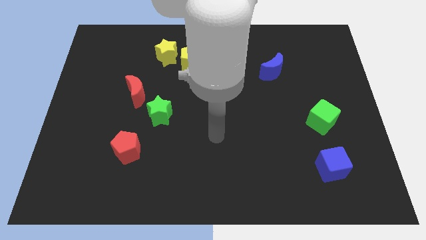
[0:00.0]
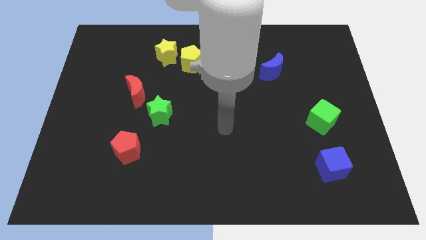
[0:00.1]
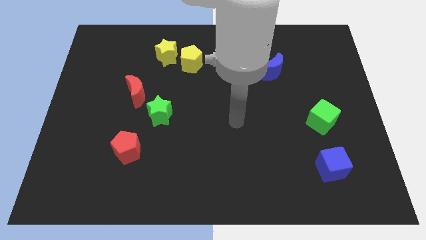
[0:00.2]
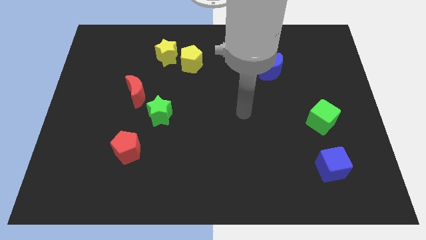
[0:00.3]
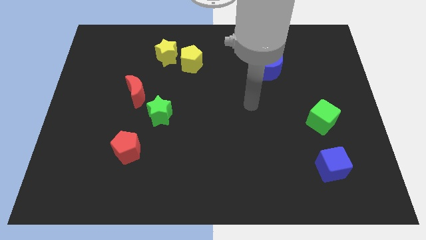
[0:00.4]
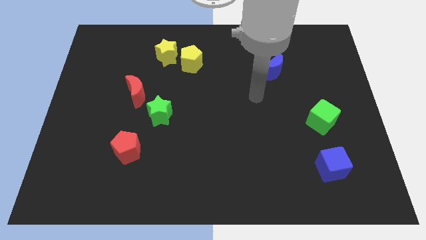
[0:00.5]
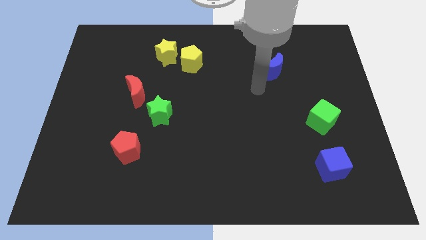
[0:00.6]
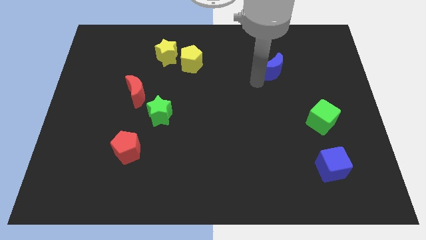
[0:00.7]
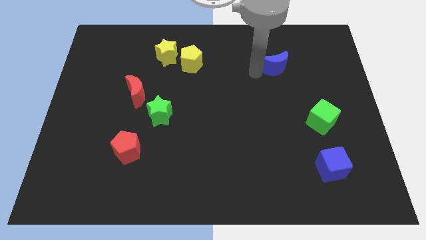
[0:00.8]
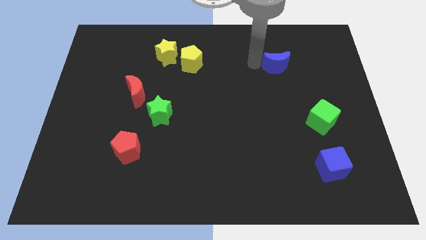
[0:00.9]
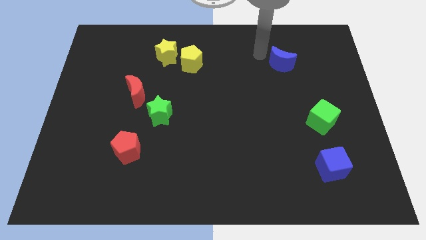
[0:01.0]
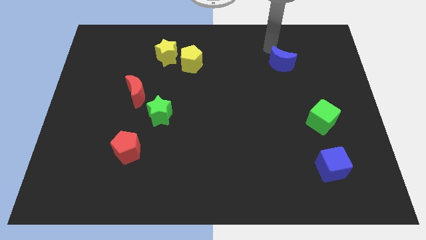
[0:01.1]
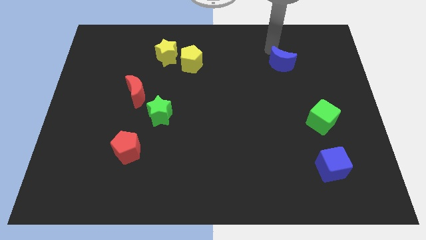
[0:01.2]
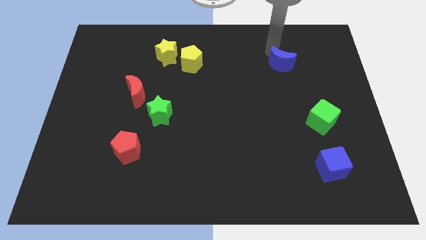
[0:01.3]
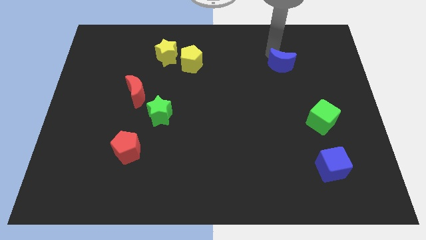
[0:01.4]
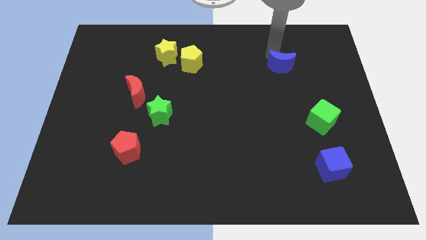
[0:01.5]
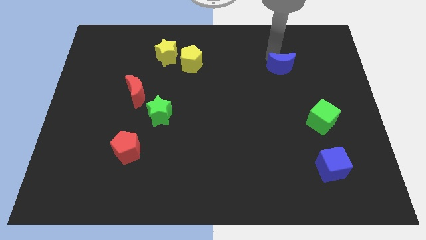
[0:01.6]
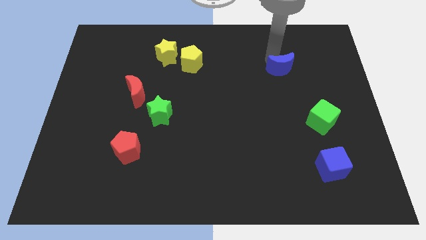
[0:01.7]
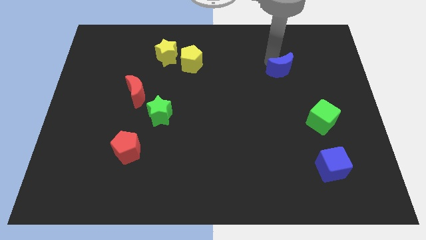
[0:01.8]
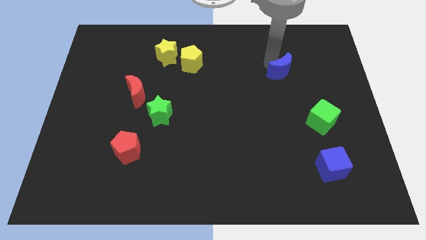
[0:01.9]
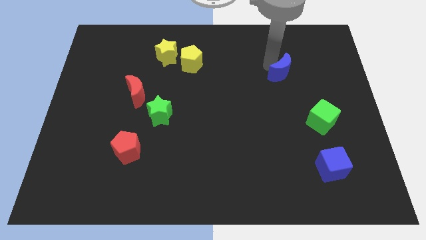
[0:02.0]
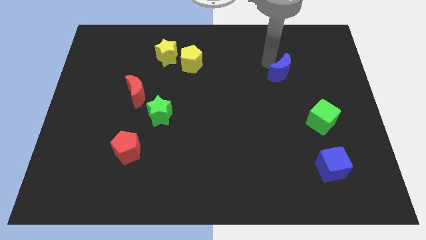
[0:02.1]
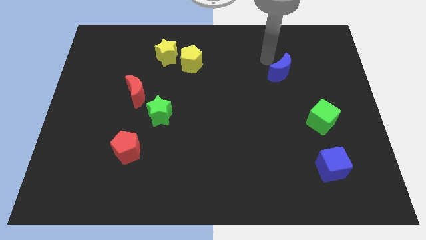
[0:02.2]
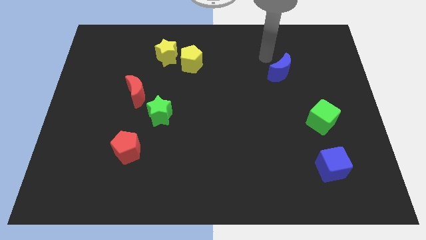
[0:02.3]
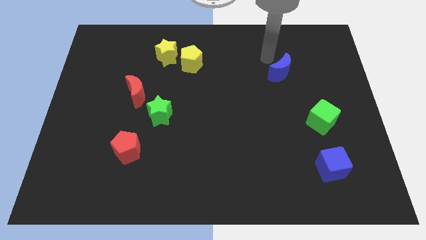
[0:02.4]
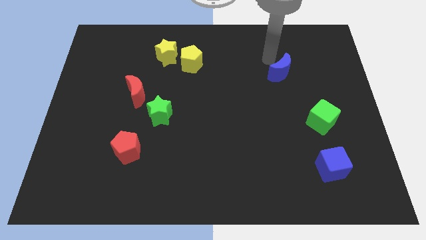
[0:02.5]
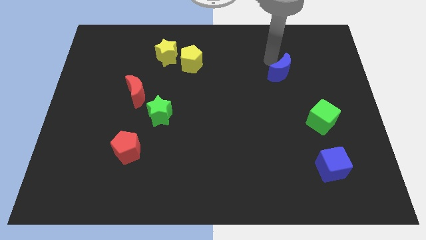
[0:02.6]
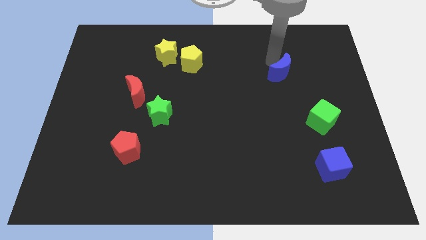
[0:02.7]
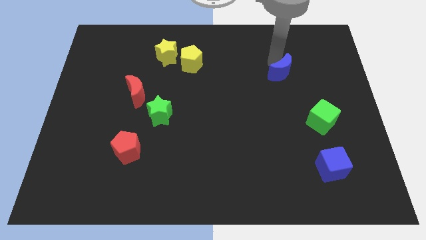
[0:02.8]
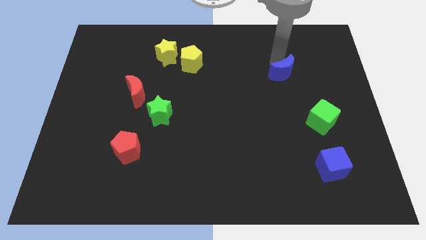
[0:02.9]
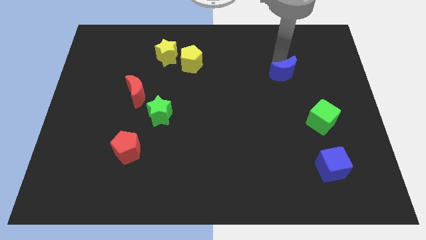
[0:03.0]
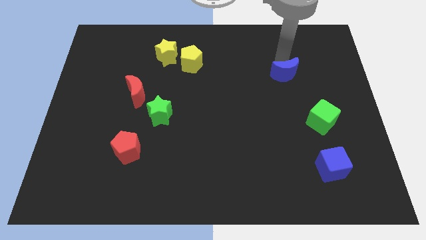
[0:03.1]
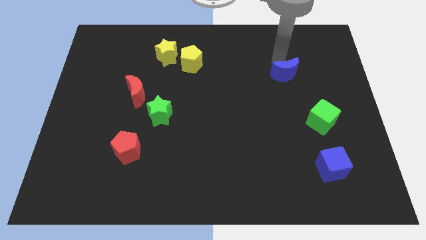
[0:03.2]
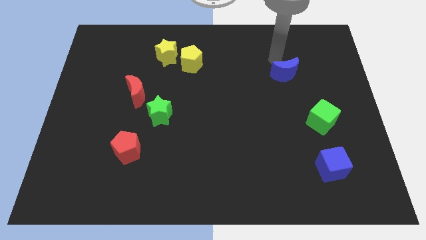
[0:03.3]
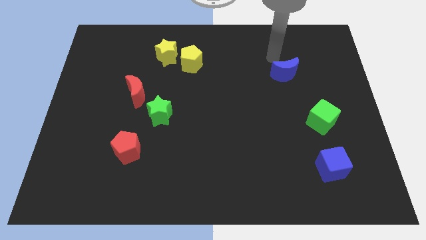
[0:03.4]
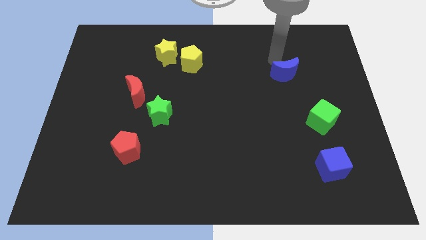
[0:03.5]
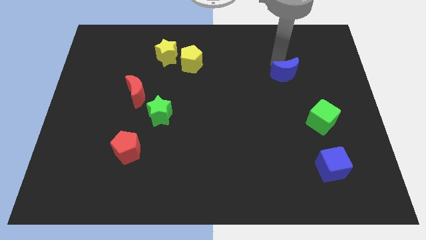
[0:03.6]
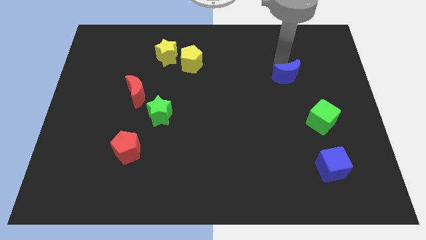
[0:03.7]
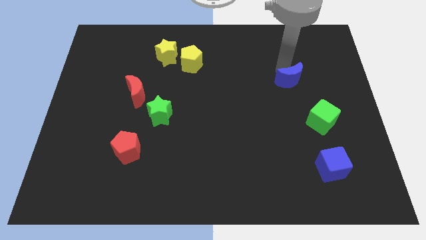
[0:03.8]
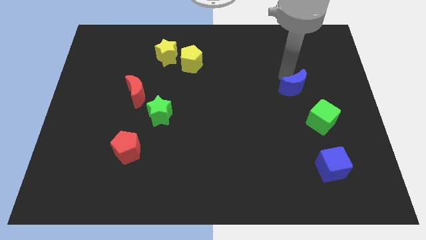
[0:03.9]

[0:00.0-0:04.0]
move the blue moon a little bit down and right

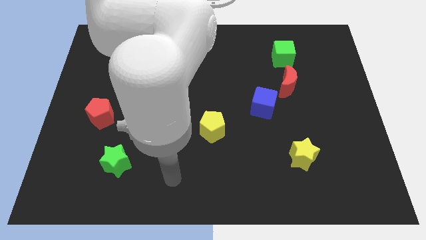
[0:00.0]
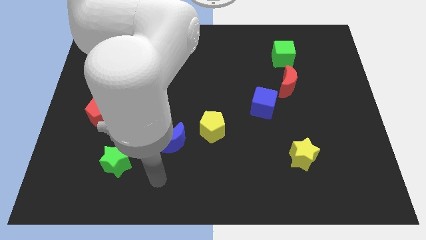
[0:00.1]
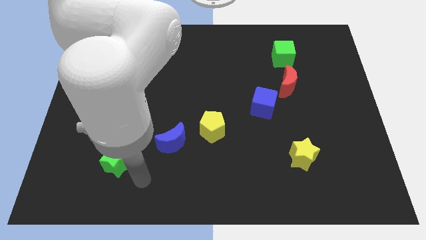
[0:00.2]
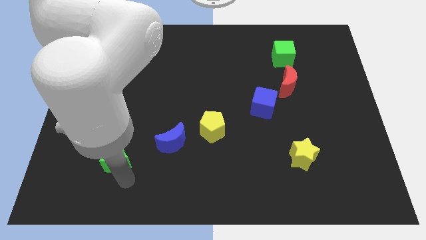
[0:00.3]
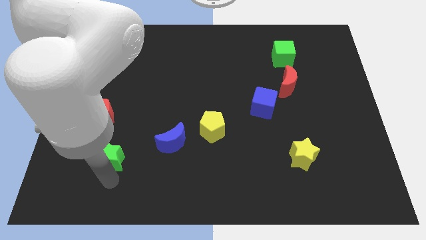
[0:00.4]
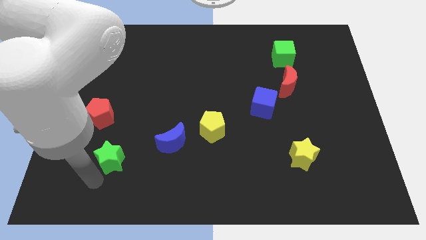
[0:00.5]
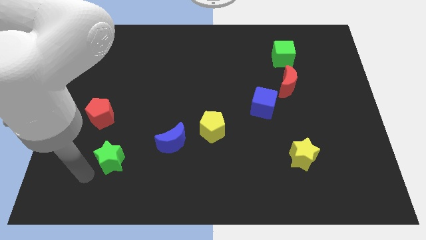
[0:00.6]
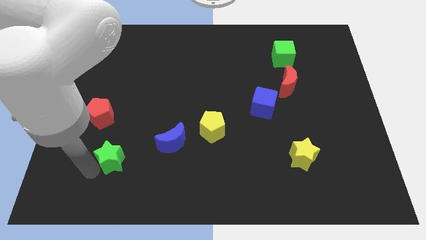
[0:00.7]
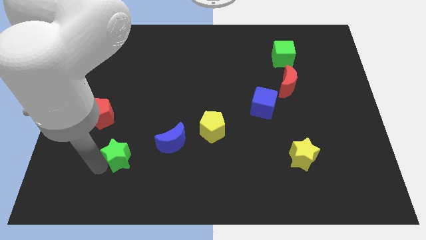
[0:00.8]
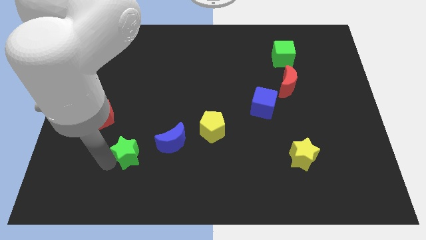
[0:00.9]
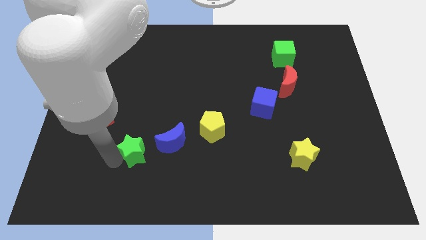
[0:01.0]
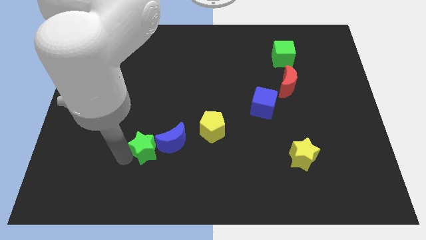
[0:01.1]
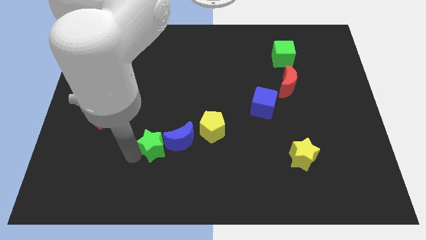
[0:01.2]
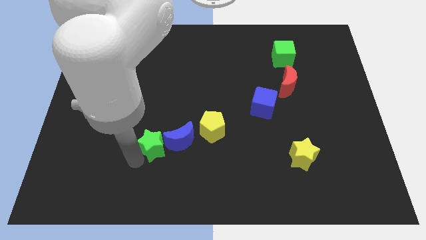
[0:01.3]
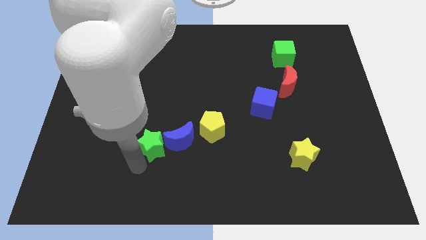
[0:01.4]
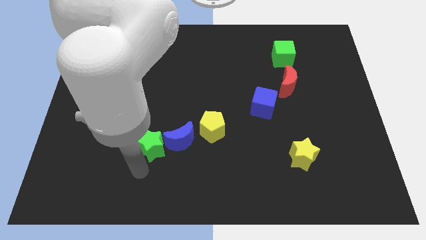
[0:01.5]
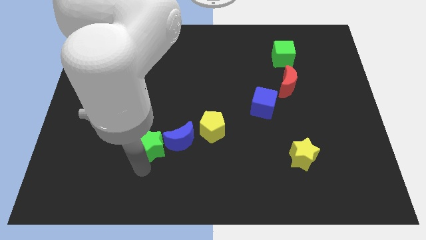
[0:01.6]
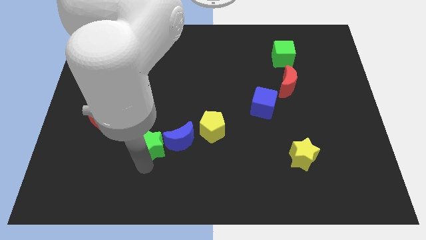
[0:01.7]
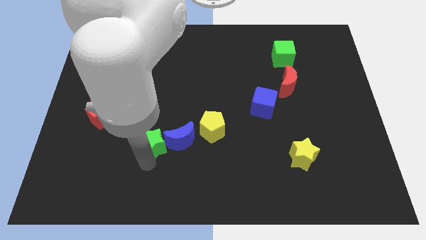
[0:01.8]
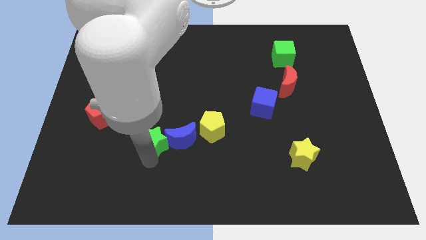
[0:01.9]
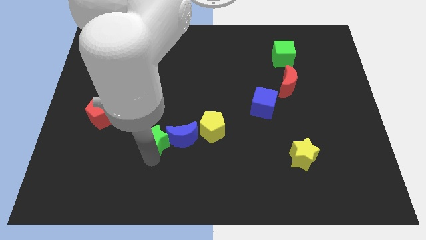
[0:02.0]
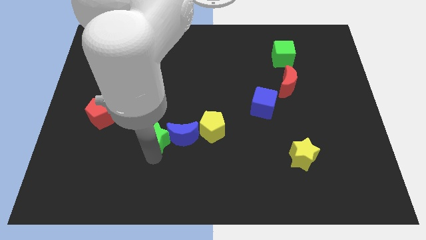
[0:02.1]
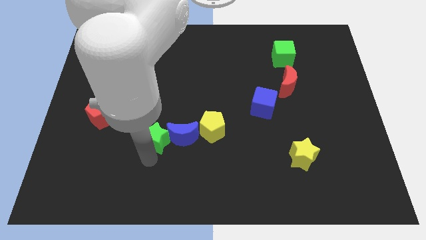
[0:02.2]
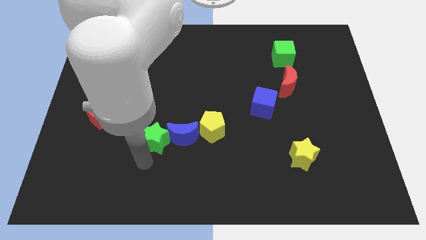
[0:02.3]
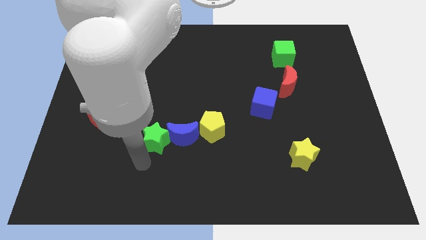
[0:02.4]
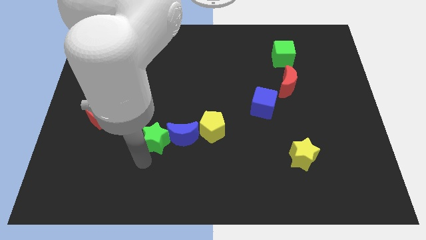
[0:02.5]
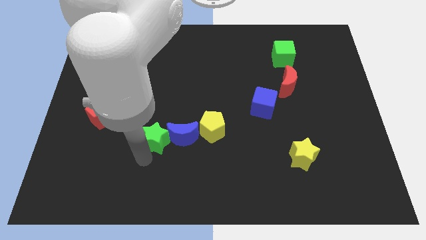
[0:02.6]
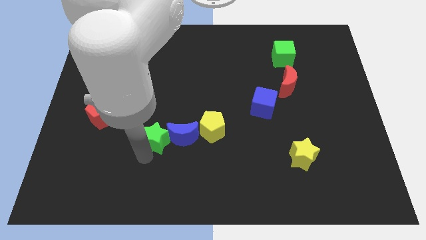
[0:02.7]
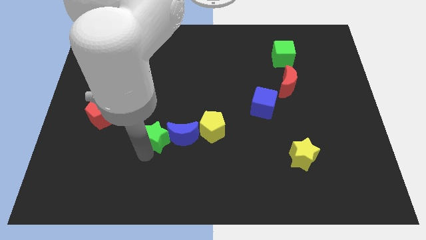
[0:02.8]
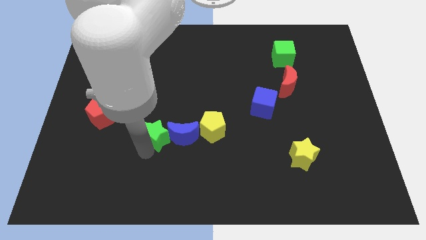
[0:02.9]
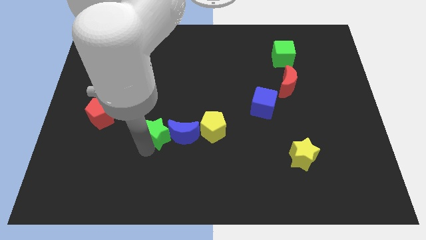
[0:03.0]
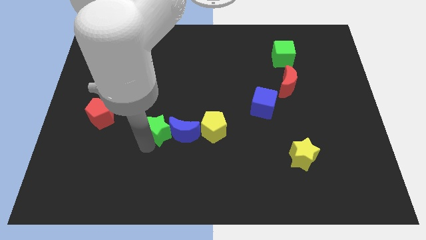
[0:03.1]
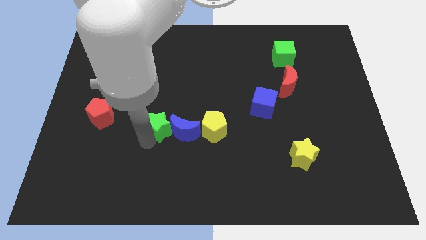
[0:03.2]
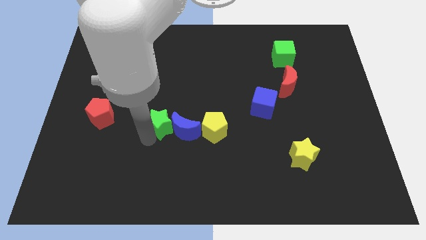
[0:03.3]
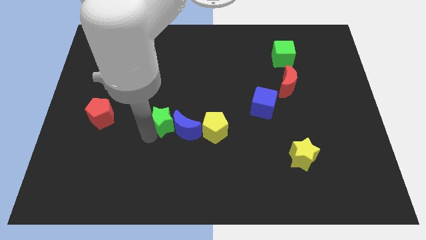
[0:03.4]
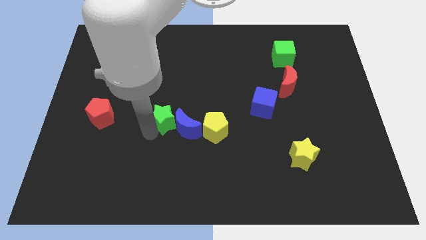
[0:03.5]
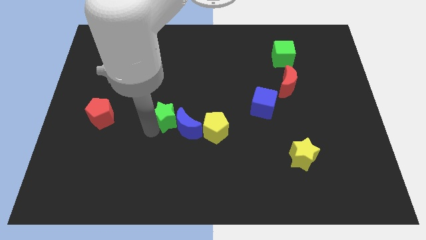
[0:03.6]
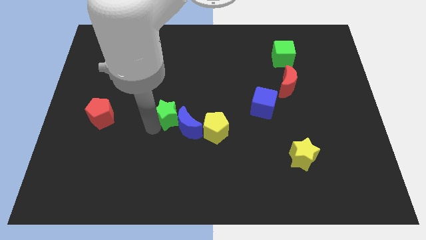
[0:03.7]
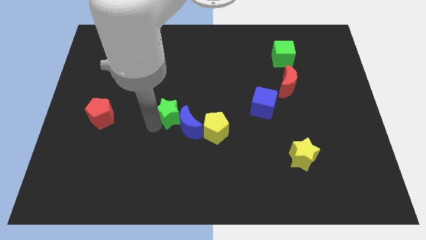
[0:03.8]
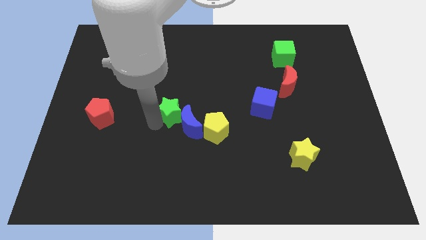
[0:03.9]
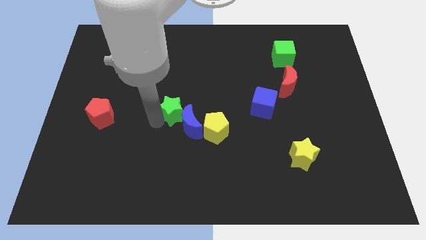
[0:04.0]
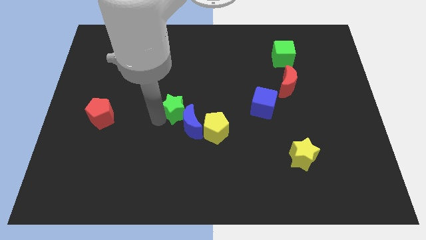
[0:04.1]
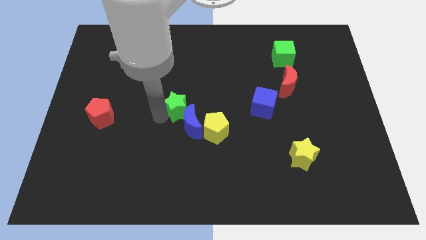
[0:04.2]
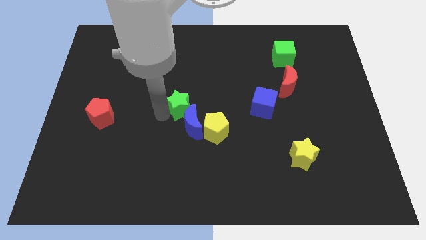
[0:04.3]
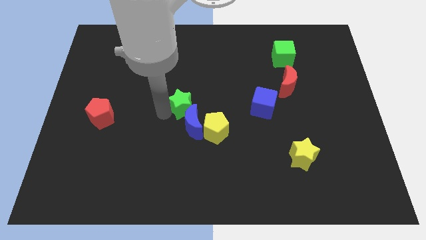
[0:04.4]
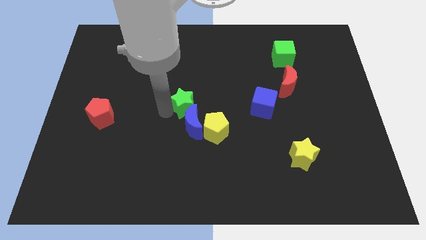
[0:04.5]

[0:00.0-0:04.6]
move the green star up and then right
